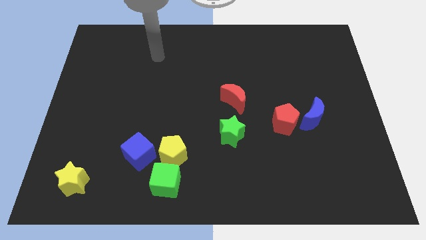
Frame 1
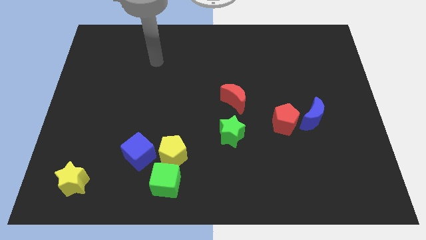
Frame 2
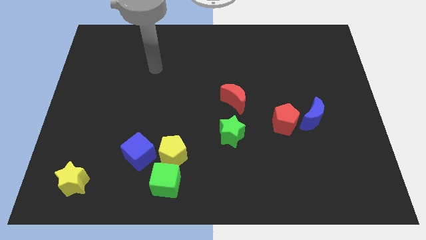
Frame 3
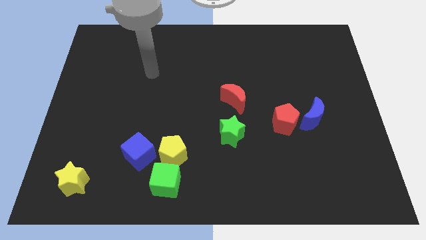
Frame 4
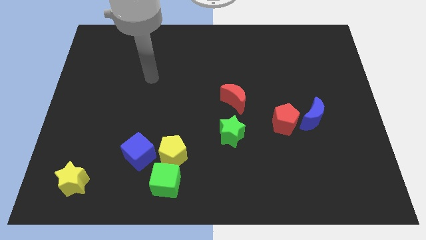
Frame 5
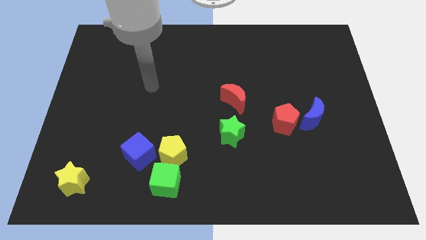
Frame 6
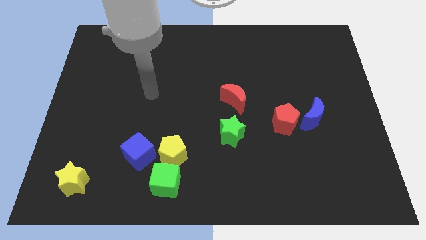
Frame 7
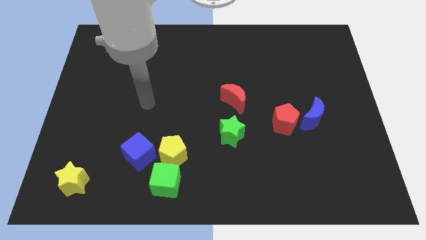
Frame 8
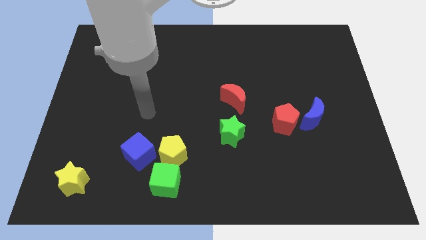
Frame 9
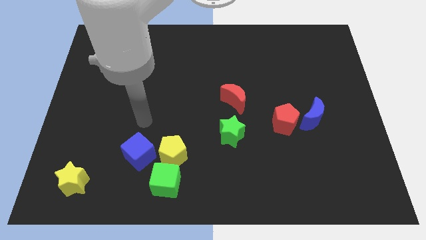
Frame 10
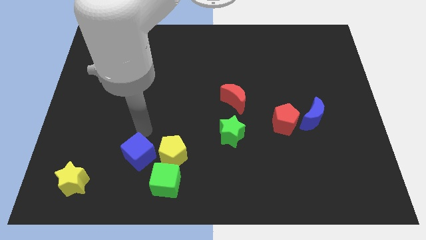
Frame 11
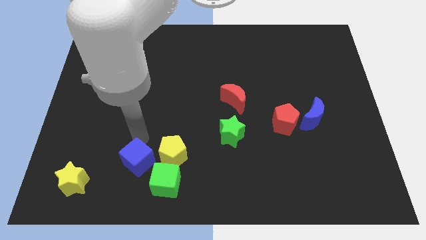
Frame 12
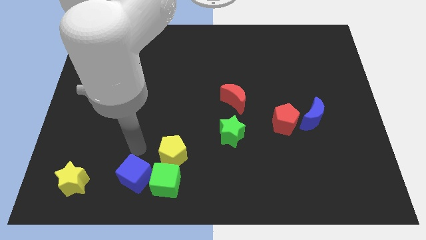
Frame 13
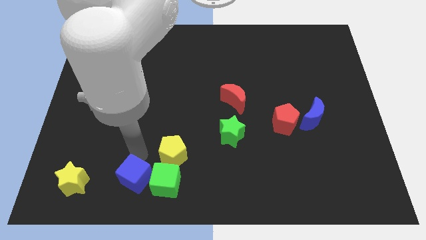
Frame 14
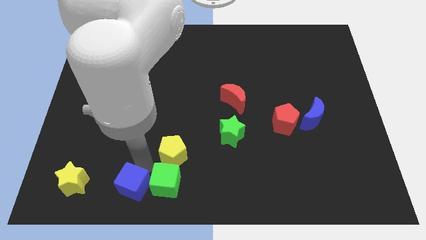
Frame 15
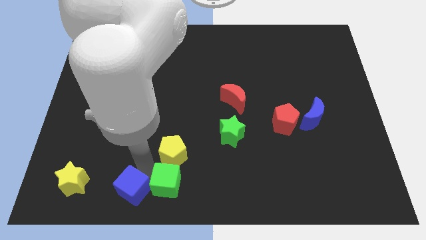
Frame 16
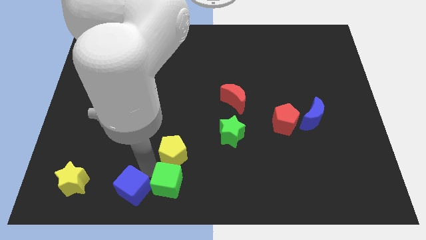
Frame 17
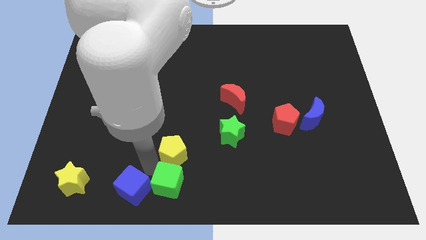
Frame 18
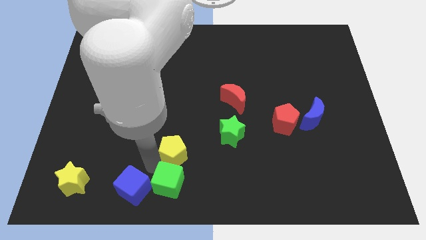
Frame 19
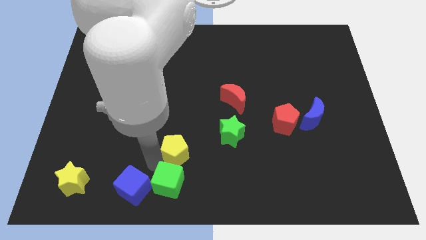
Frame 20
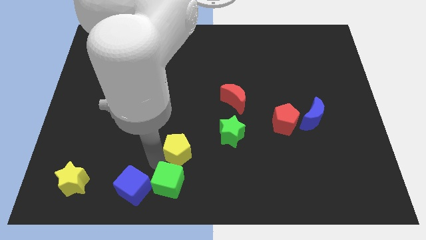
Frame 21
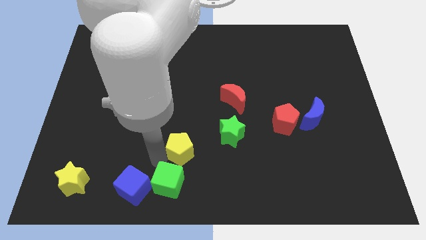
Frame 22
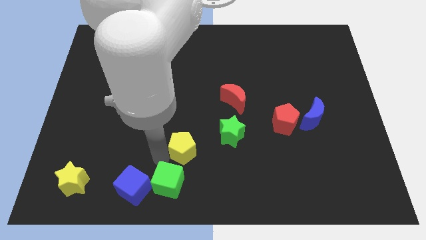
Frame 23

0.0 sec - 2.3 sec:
move the yellow pentagon away from the green cube and blue cube

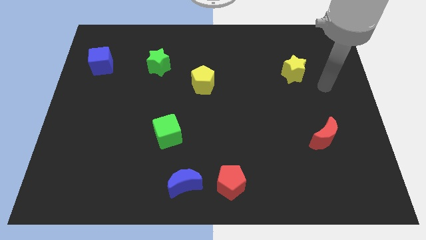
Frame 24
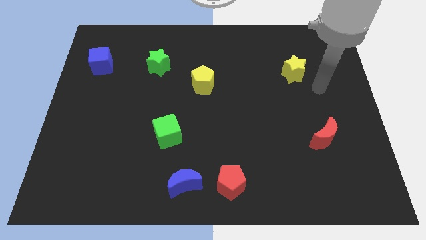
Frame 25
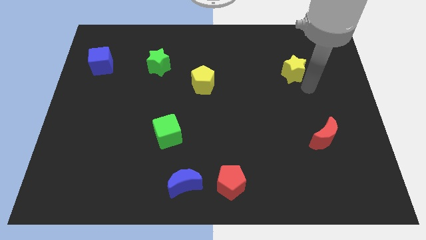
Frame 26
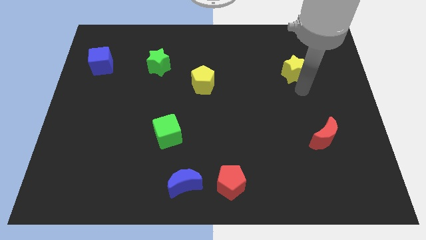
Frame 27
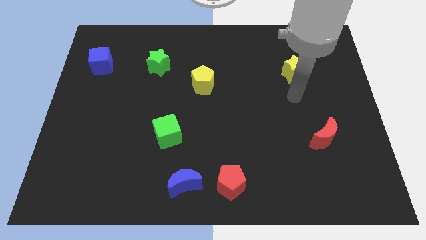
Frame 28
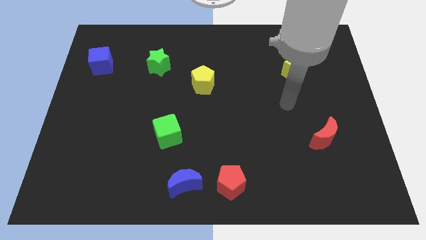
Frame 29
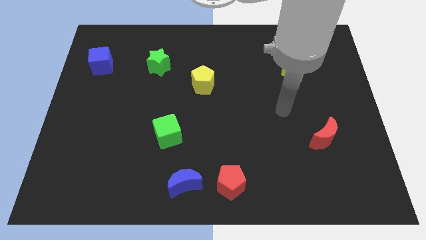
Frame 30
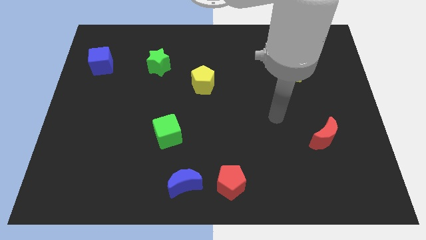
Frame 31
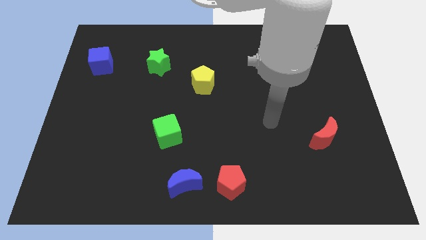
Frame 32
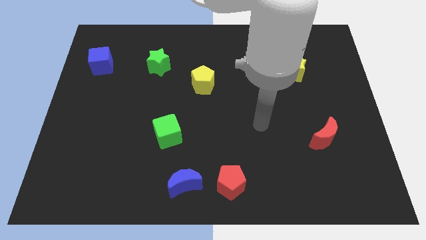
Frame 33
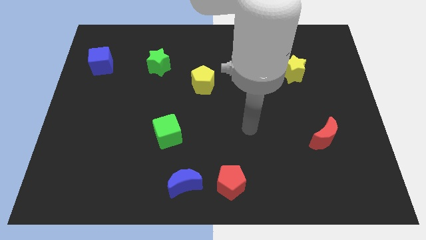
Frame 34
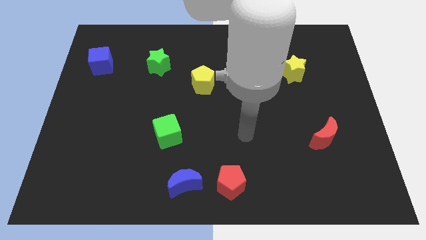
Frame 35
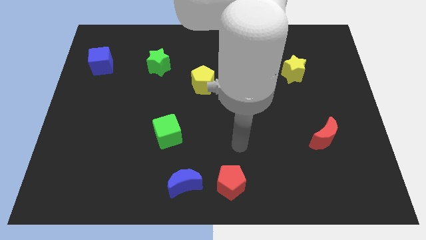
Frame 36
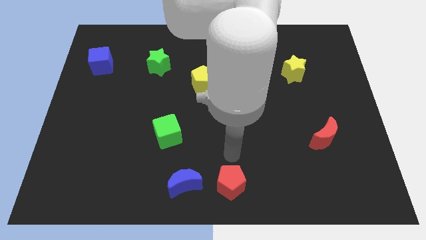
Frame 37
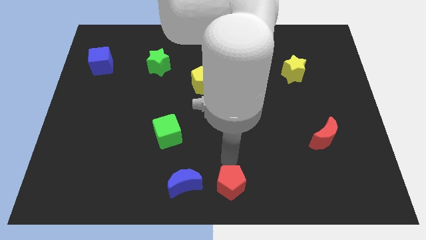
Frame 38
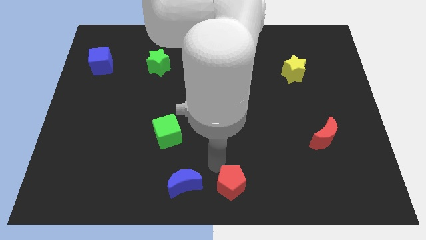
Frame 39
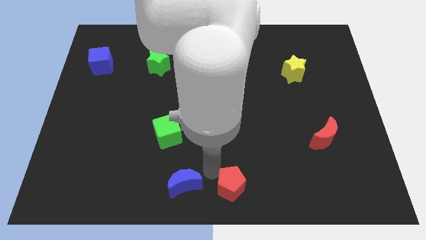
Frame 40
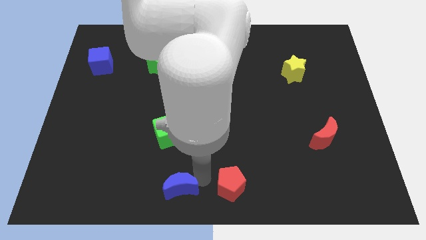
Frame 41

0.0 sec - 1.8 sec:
separate the red pentagon from the blue moon

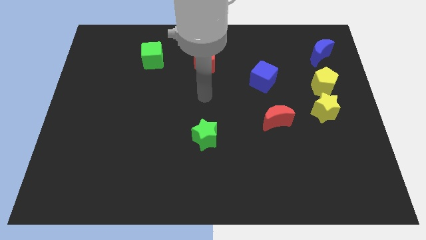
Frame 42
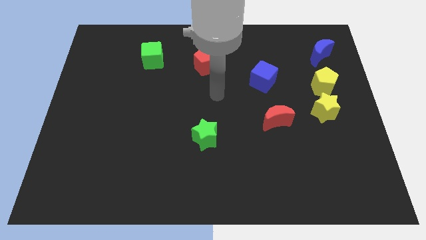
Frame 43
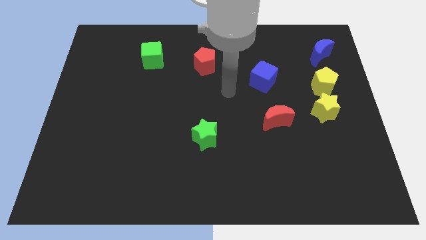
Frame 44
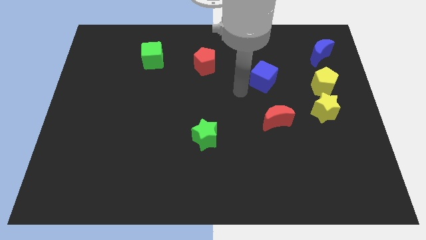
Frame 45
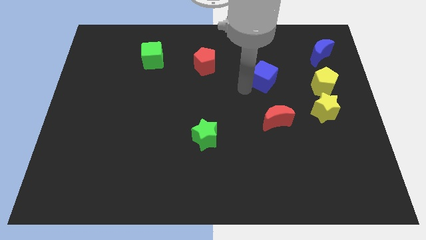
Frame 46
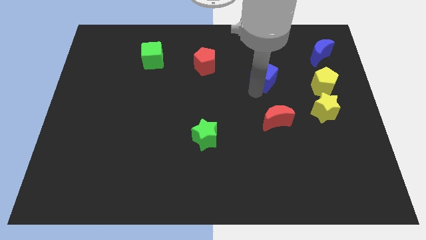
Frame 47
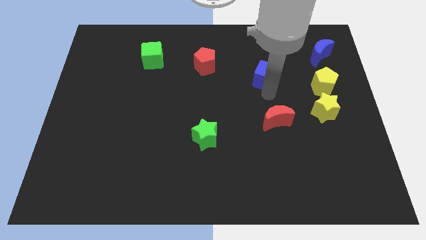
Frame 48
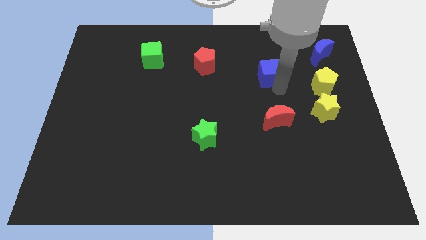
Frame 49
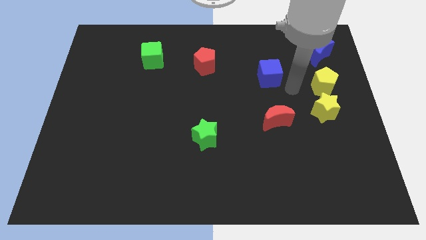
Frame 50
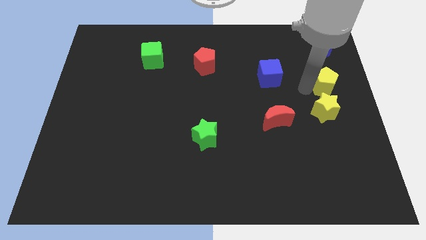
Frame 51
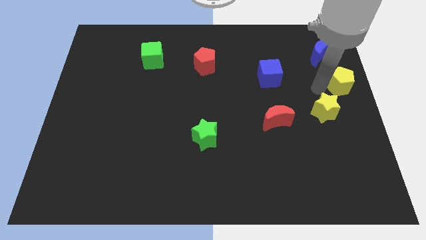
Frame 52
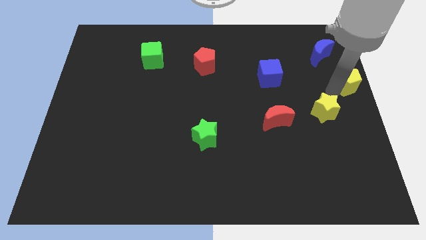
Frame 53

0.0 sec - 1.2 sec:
move the yellow star away from the yellow pentagon

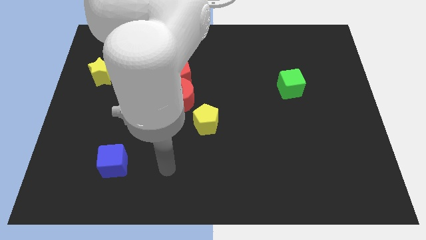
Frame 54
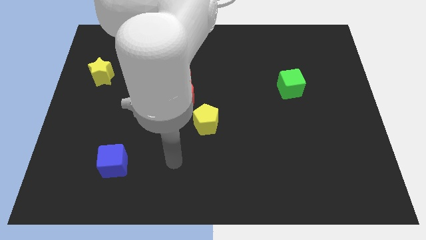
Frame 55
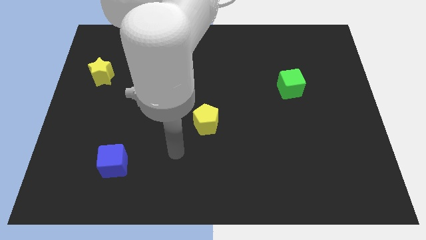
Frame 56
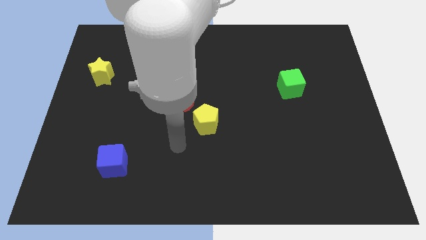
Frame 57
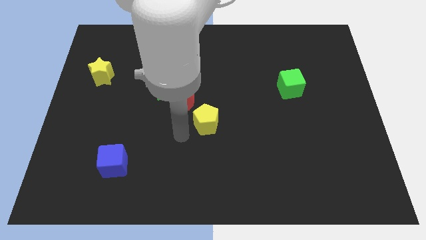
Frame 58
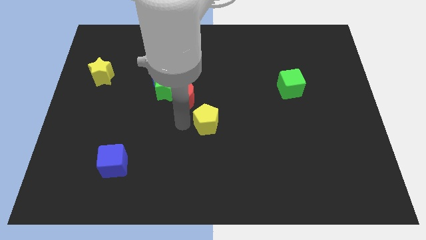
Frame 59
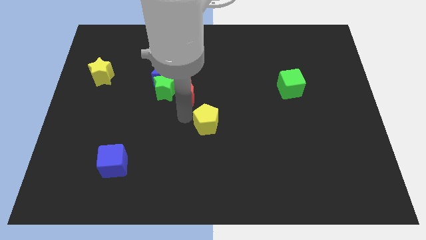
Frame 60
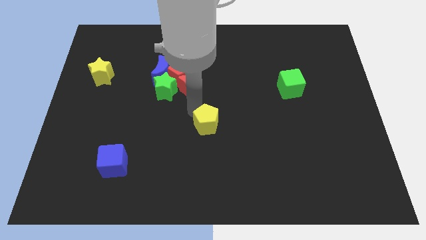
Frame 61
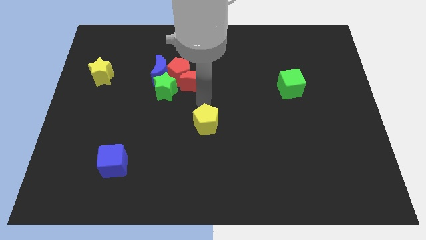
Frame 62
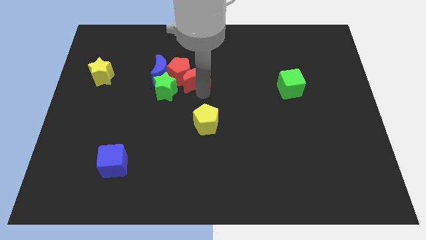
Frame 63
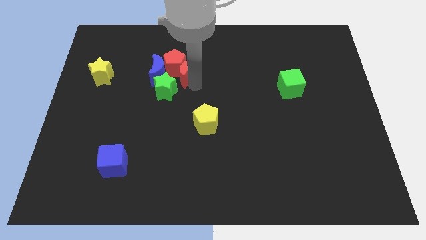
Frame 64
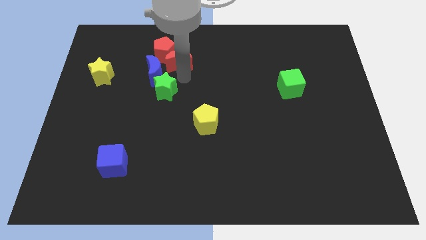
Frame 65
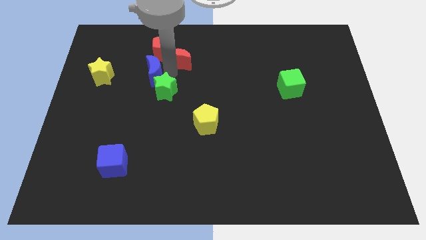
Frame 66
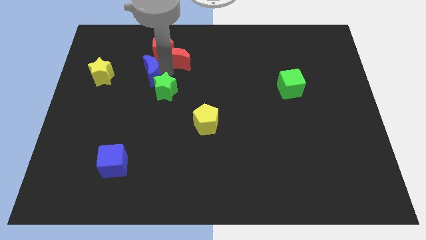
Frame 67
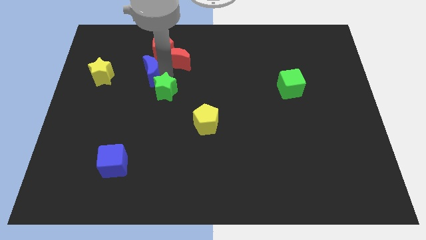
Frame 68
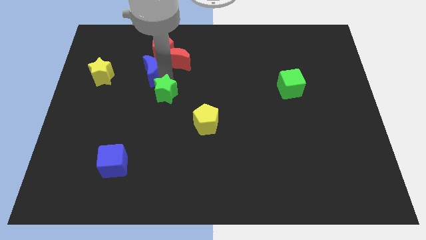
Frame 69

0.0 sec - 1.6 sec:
move the green star away from the red pentagon, blue moon, and red moon

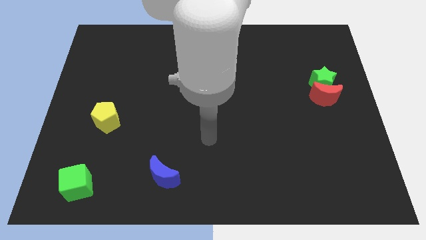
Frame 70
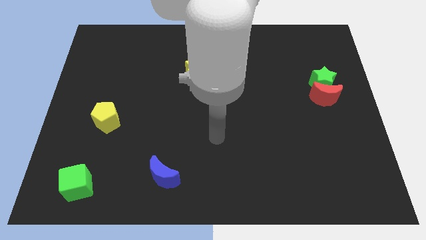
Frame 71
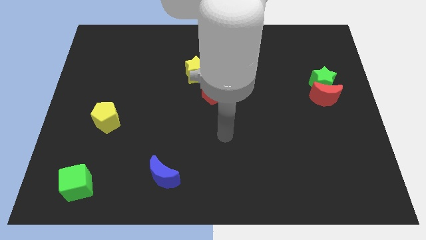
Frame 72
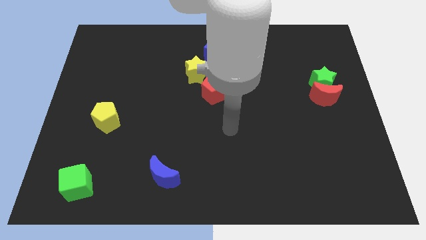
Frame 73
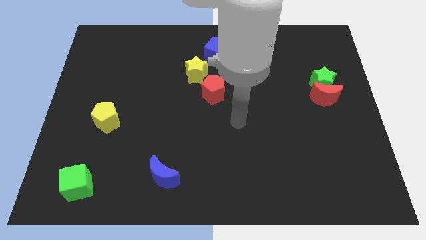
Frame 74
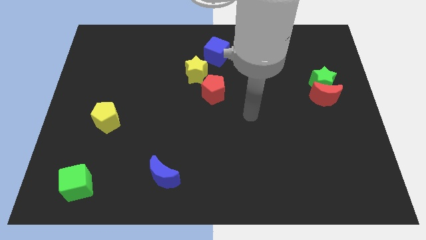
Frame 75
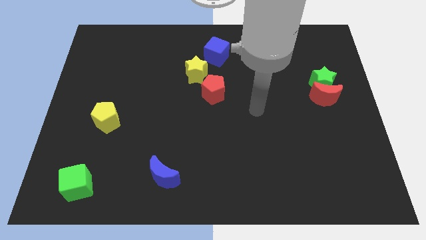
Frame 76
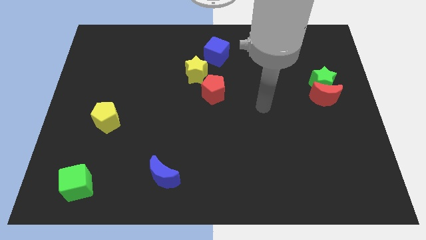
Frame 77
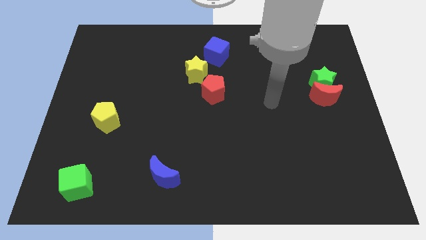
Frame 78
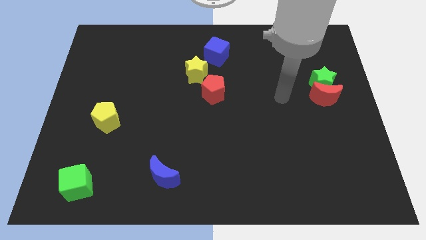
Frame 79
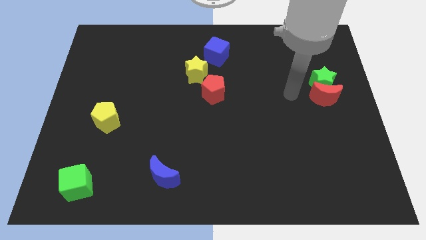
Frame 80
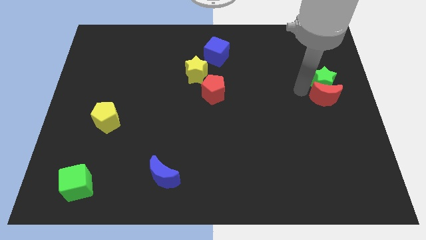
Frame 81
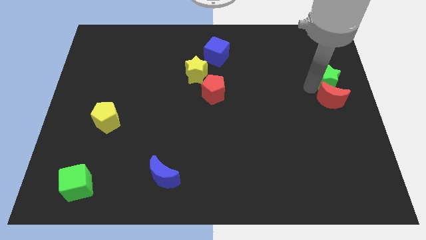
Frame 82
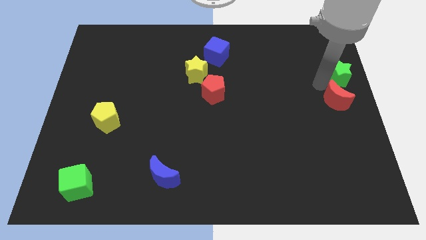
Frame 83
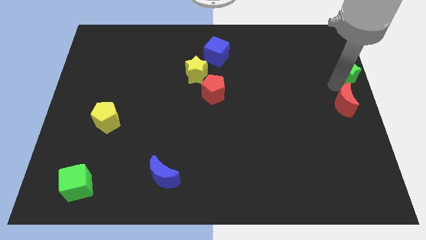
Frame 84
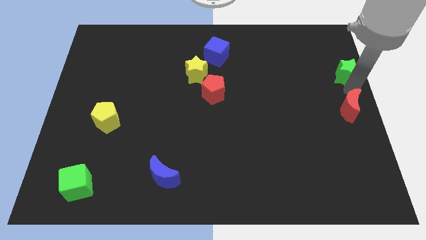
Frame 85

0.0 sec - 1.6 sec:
move the red moon away from the green star

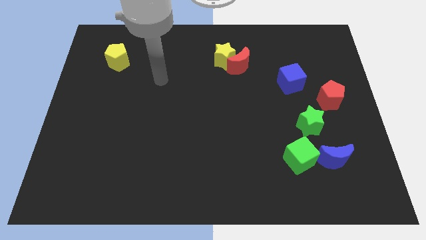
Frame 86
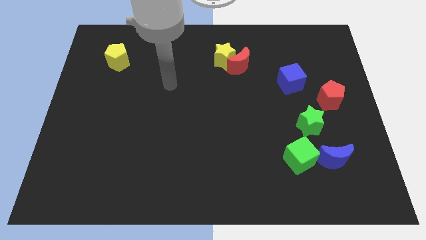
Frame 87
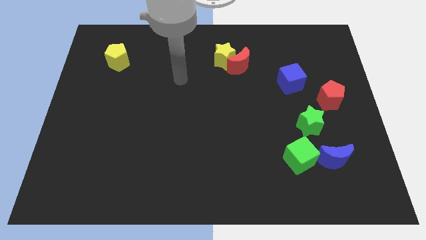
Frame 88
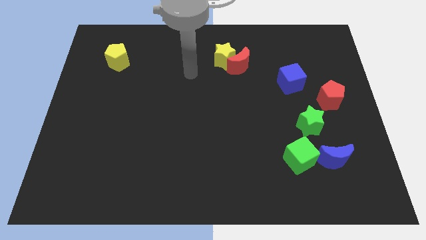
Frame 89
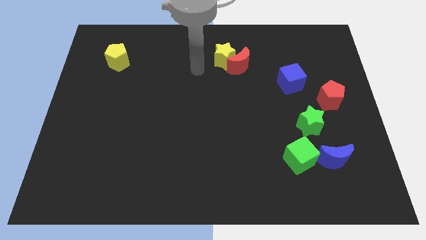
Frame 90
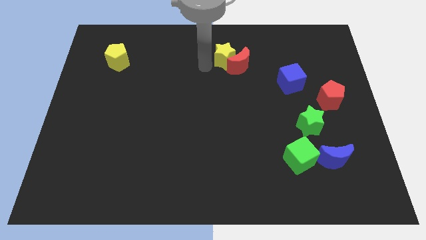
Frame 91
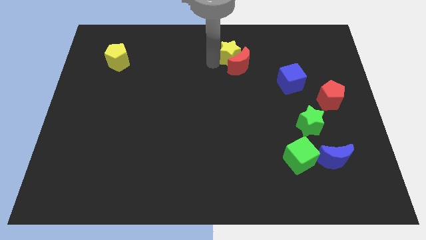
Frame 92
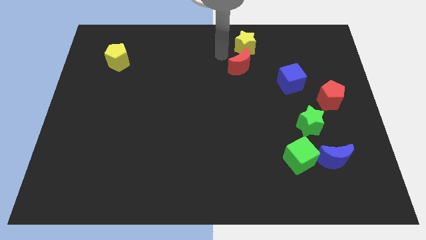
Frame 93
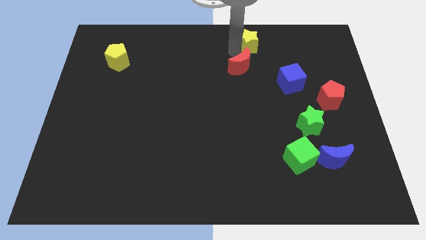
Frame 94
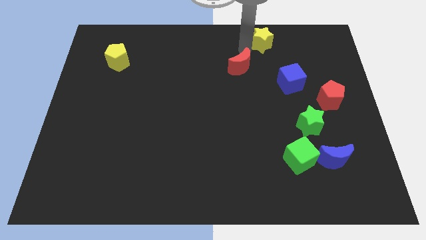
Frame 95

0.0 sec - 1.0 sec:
pull the red moon apart from the yellow star
